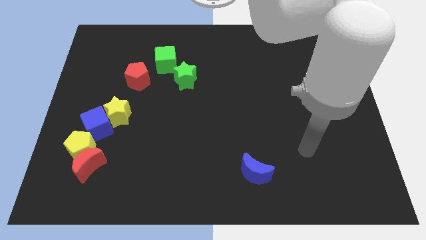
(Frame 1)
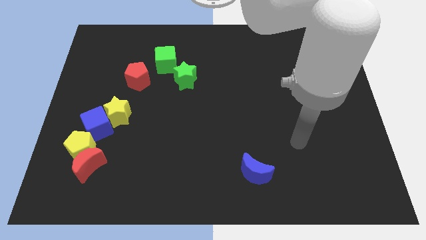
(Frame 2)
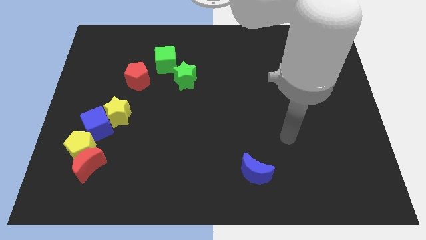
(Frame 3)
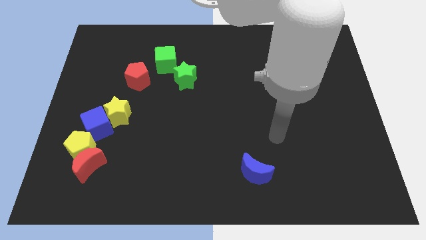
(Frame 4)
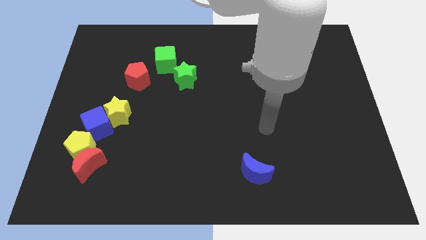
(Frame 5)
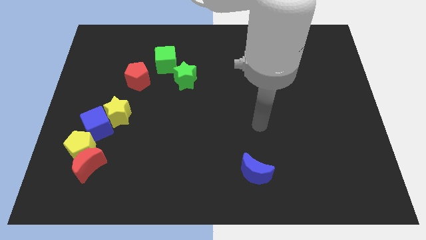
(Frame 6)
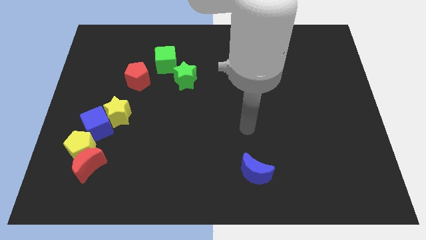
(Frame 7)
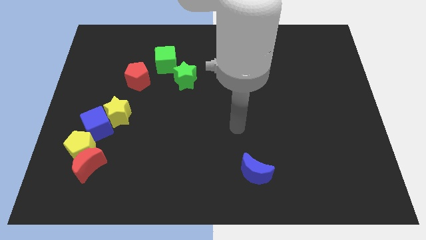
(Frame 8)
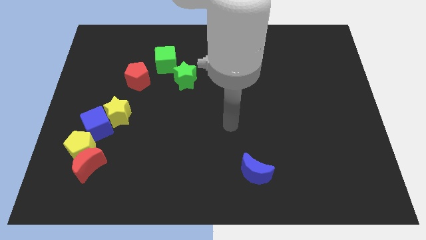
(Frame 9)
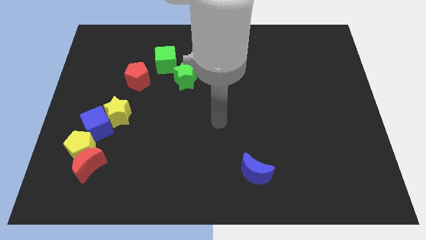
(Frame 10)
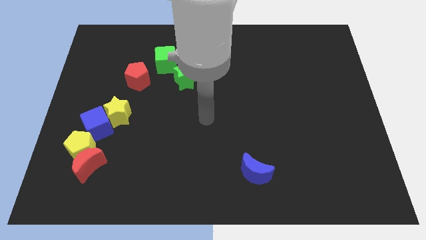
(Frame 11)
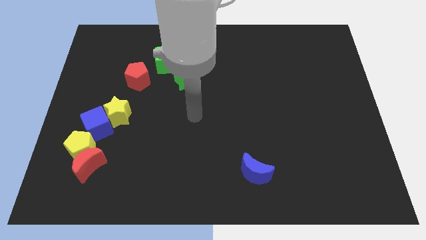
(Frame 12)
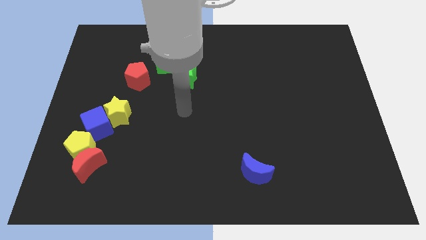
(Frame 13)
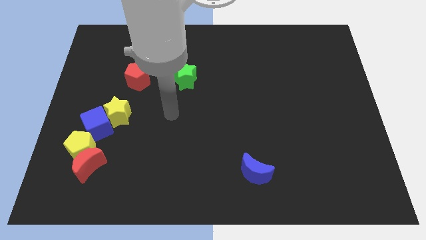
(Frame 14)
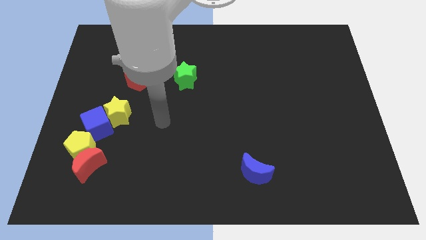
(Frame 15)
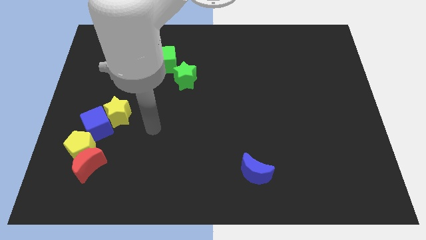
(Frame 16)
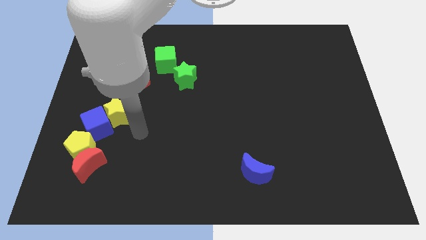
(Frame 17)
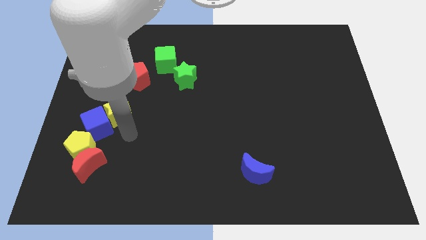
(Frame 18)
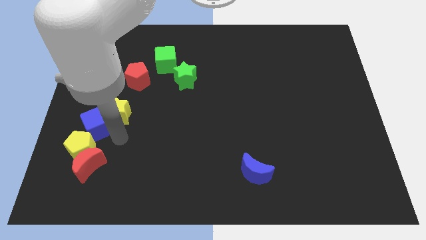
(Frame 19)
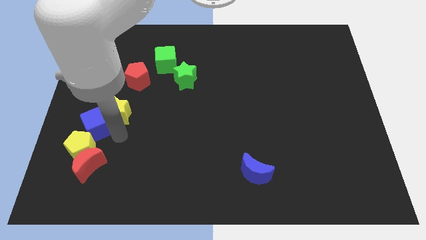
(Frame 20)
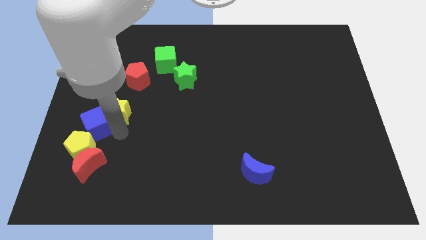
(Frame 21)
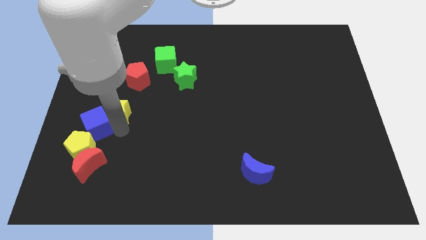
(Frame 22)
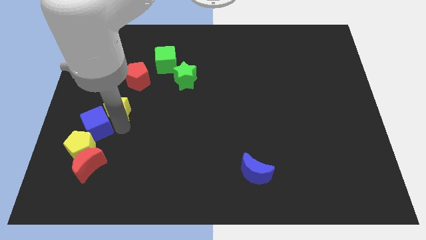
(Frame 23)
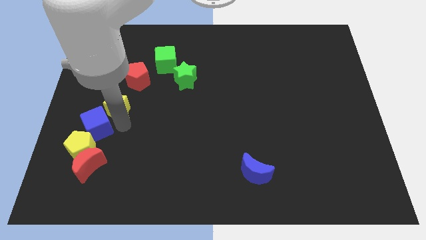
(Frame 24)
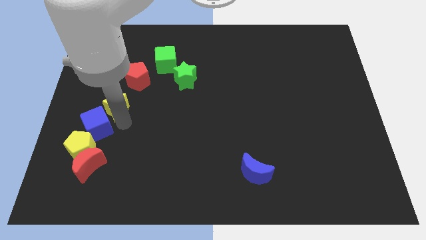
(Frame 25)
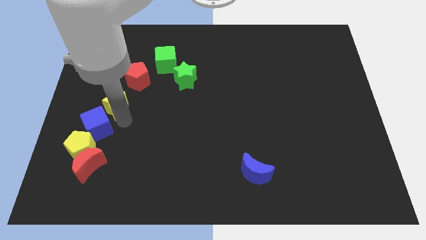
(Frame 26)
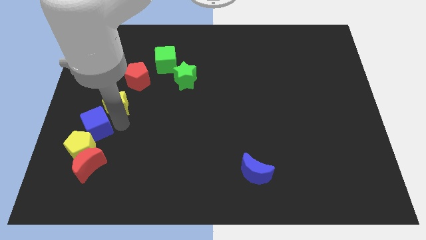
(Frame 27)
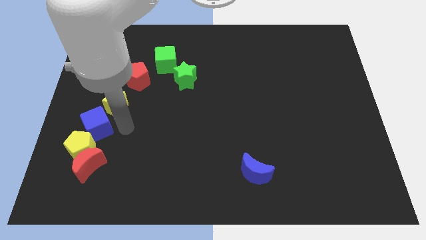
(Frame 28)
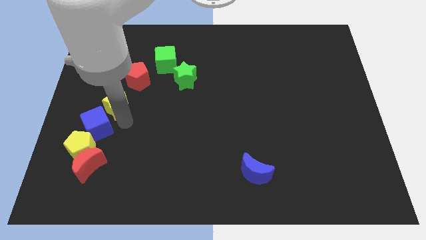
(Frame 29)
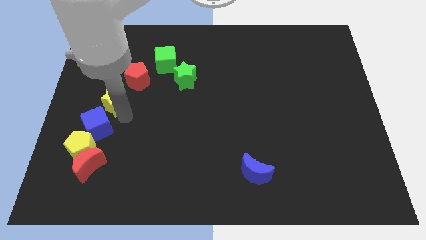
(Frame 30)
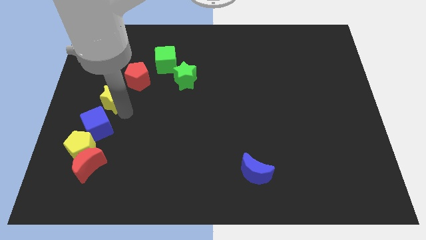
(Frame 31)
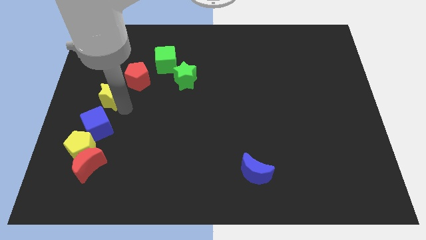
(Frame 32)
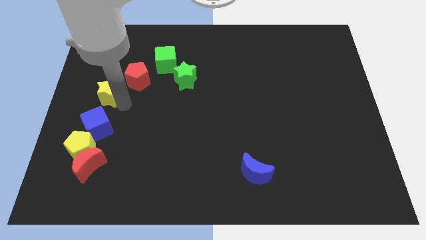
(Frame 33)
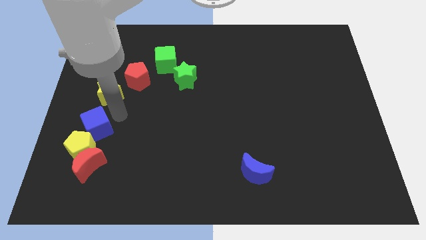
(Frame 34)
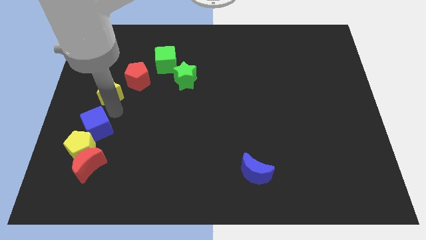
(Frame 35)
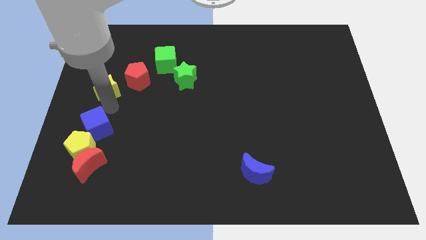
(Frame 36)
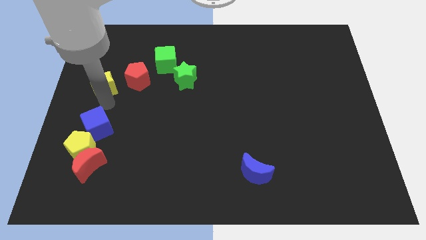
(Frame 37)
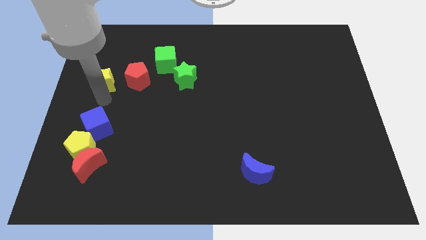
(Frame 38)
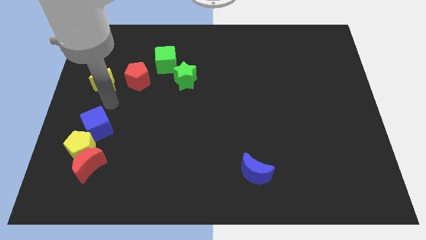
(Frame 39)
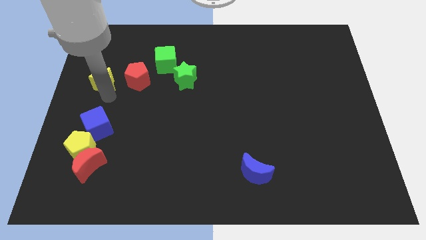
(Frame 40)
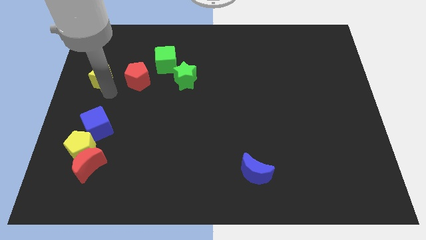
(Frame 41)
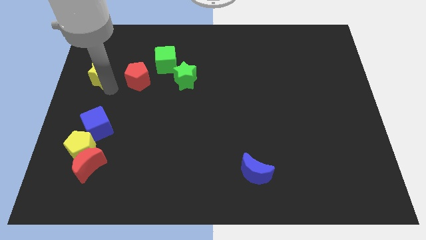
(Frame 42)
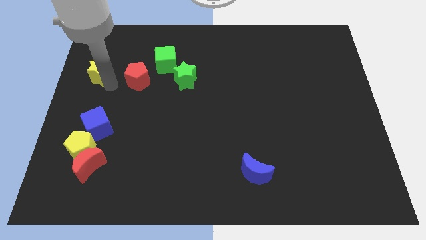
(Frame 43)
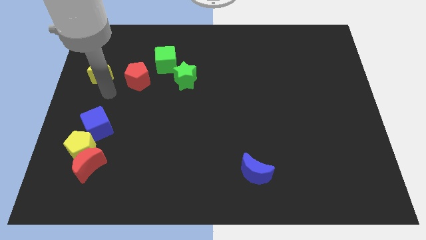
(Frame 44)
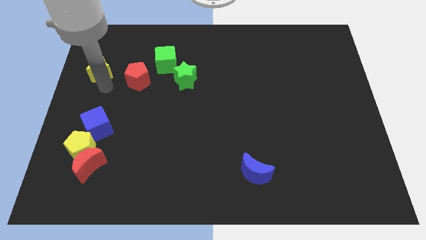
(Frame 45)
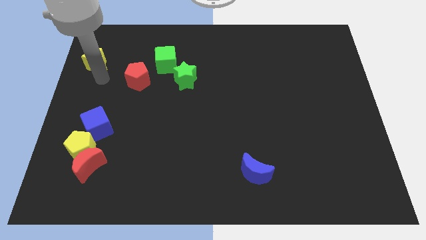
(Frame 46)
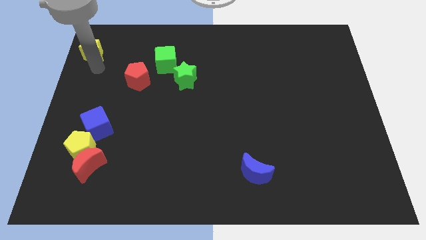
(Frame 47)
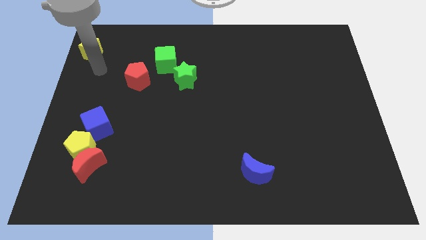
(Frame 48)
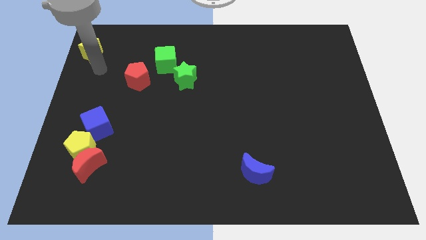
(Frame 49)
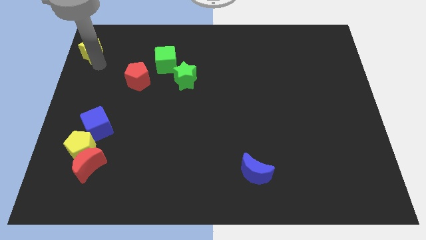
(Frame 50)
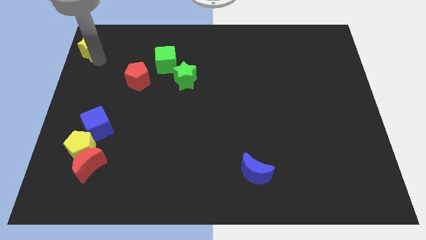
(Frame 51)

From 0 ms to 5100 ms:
put the yellow star to the top left corner

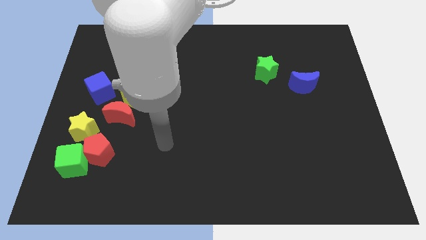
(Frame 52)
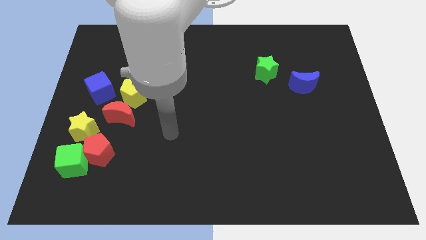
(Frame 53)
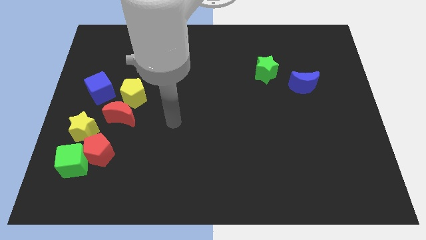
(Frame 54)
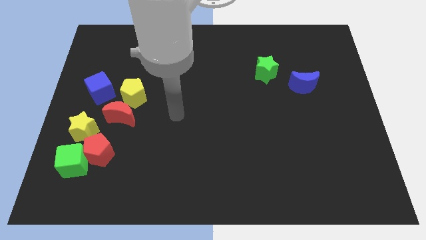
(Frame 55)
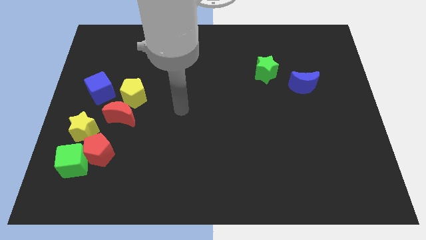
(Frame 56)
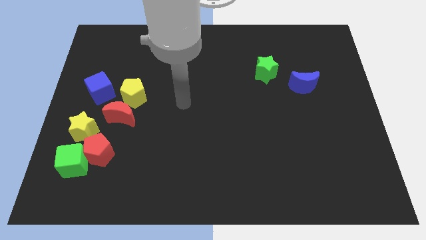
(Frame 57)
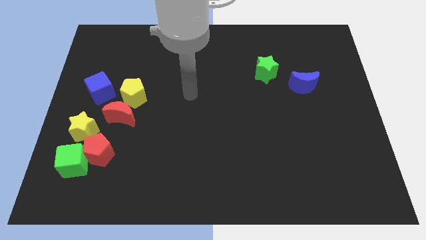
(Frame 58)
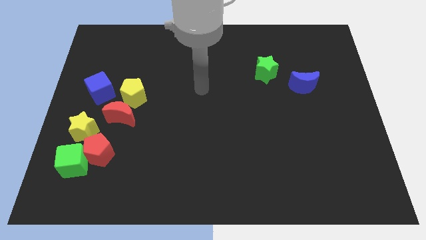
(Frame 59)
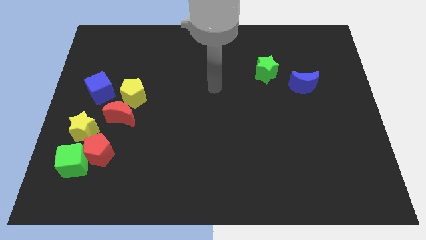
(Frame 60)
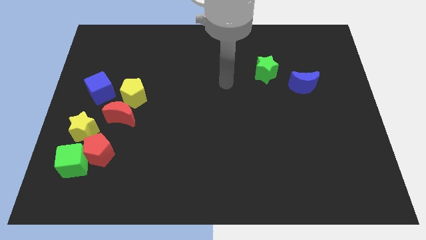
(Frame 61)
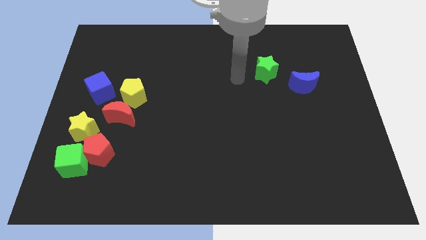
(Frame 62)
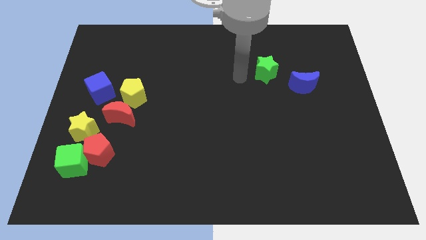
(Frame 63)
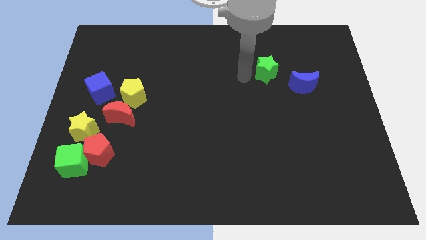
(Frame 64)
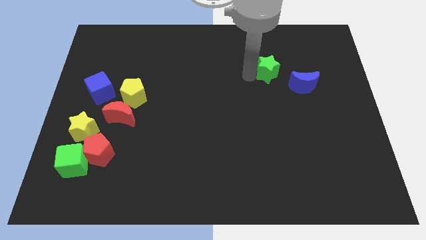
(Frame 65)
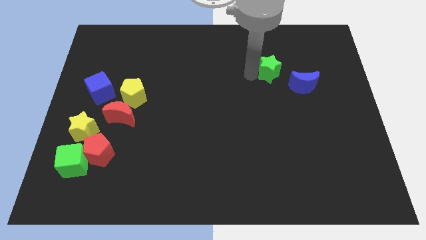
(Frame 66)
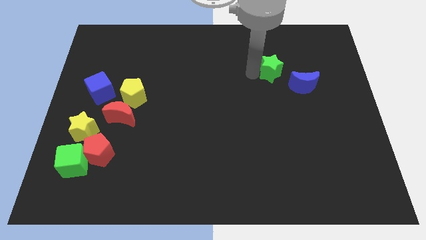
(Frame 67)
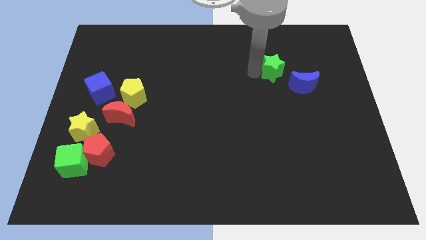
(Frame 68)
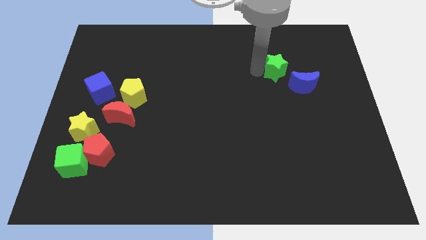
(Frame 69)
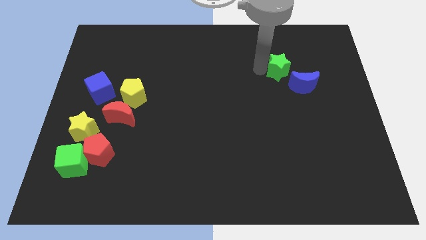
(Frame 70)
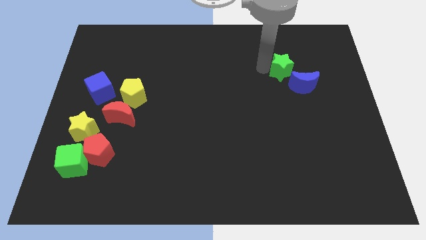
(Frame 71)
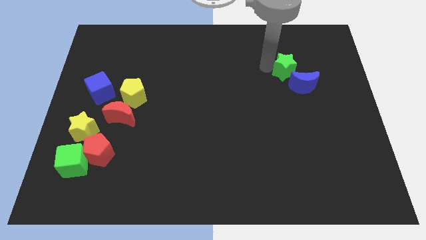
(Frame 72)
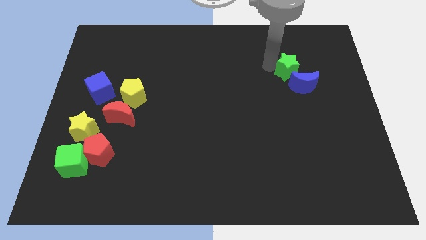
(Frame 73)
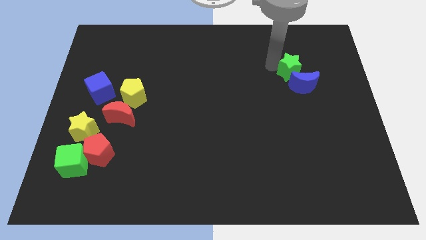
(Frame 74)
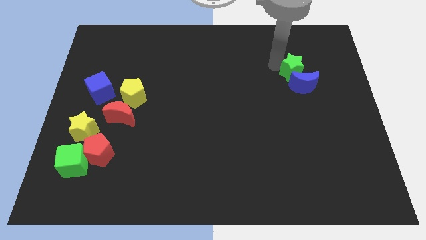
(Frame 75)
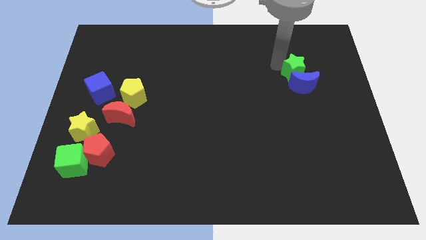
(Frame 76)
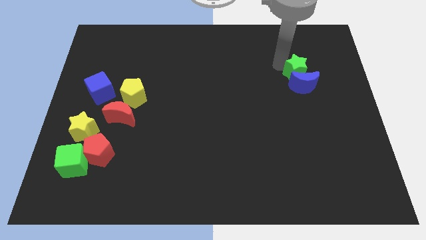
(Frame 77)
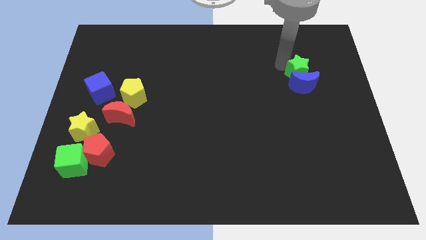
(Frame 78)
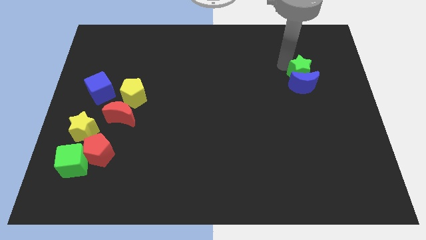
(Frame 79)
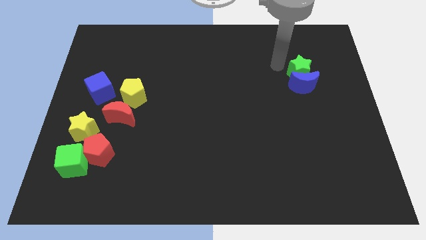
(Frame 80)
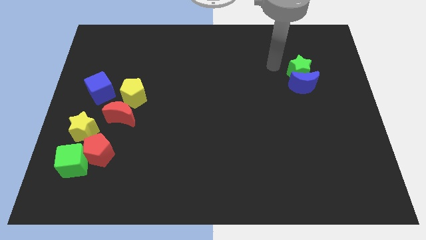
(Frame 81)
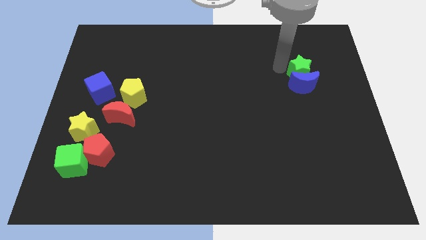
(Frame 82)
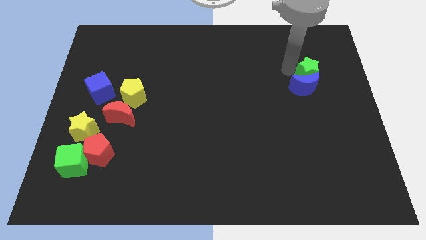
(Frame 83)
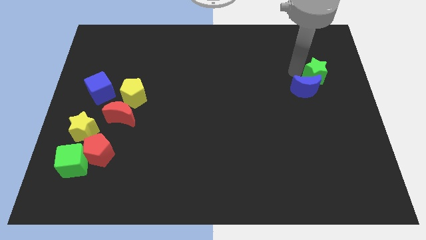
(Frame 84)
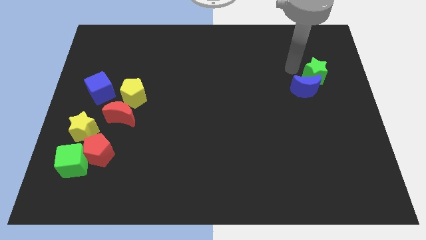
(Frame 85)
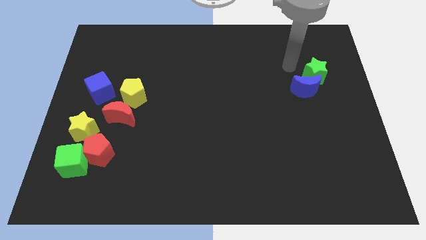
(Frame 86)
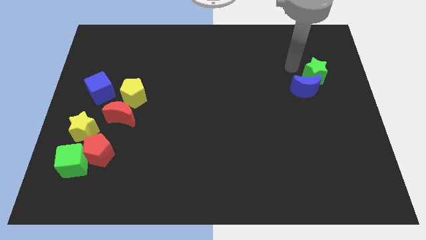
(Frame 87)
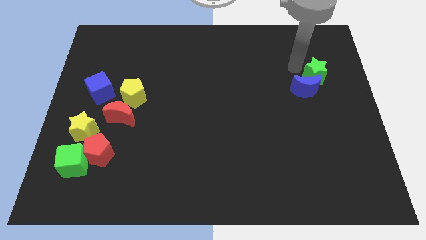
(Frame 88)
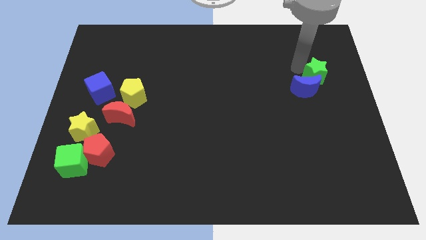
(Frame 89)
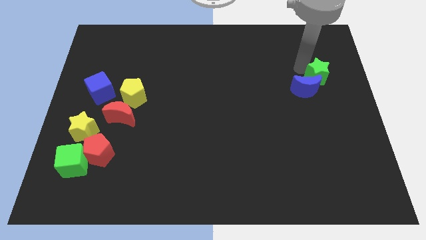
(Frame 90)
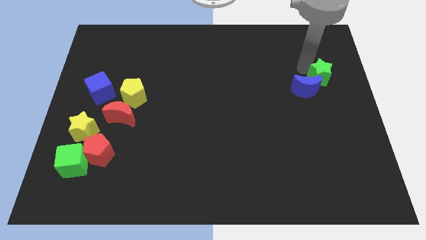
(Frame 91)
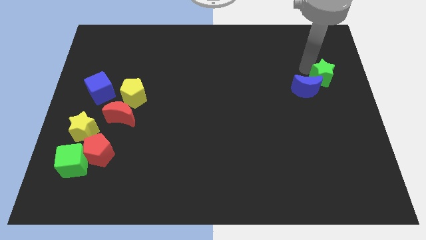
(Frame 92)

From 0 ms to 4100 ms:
move the green star to the right side of the board
